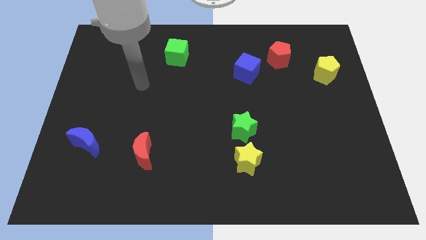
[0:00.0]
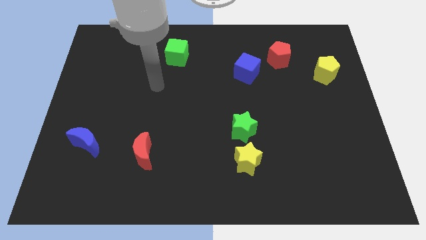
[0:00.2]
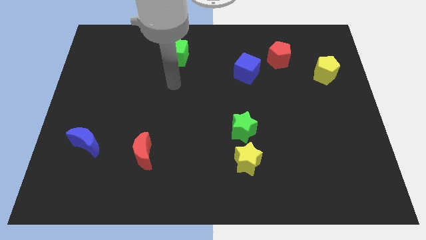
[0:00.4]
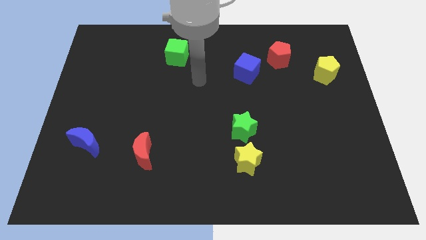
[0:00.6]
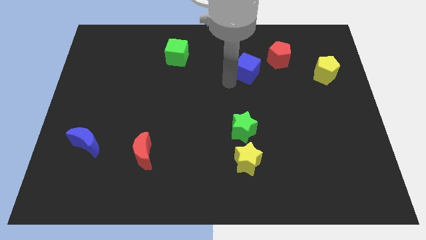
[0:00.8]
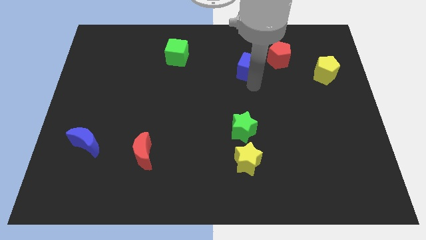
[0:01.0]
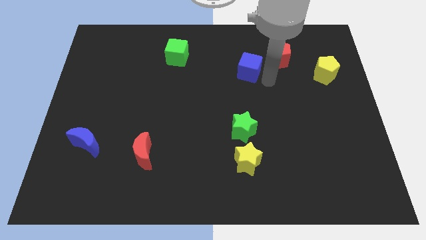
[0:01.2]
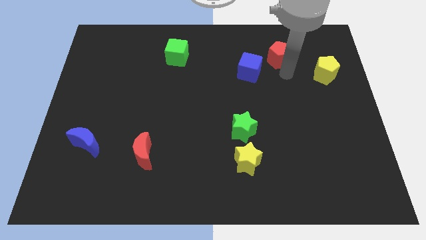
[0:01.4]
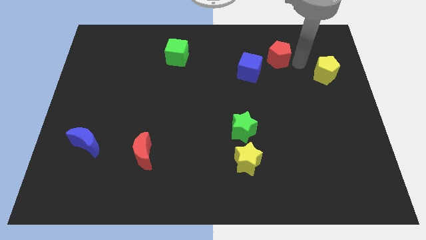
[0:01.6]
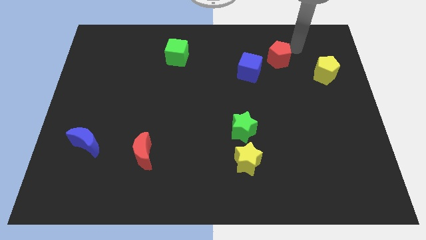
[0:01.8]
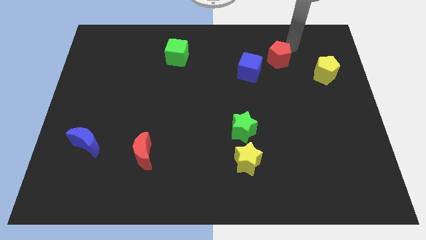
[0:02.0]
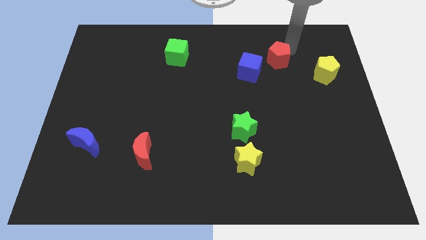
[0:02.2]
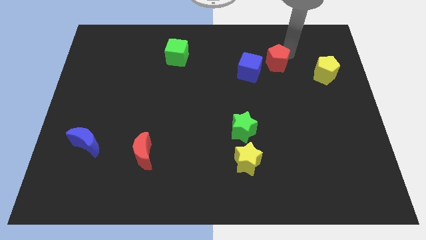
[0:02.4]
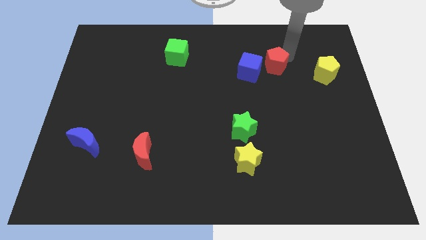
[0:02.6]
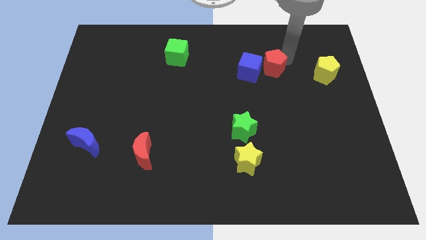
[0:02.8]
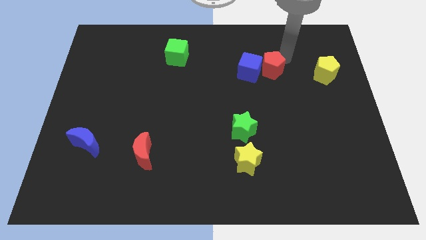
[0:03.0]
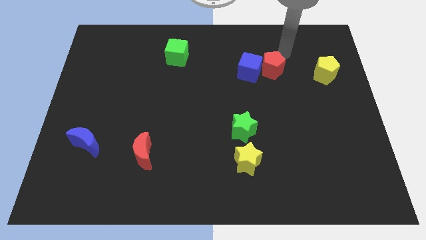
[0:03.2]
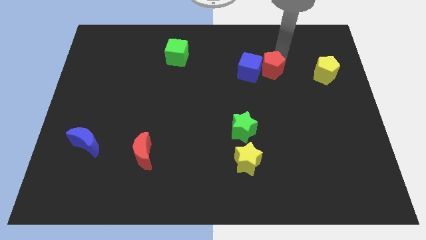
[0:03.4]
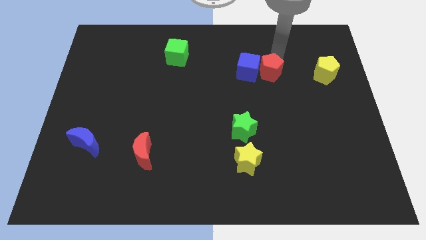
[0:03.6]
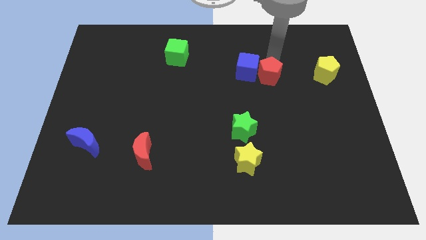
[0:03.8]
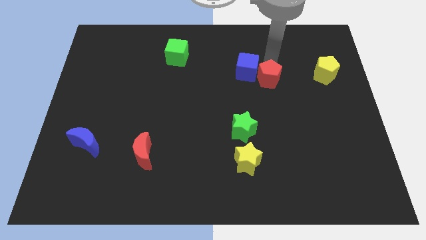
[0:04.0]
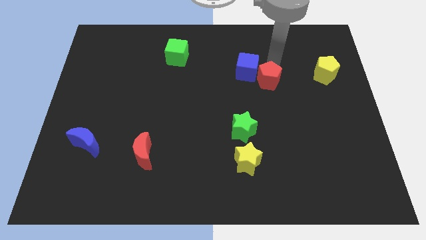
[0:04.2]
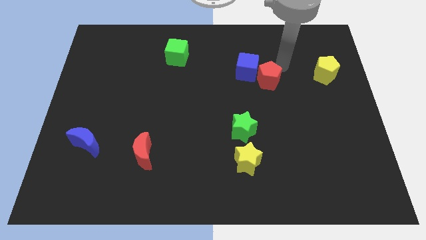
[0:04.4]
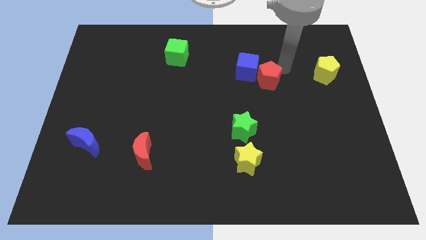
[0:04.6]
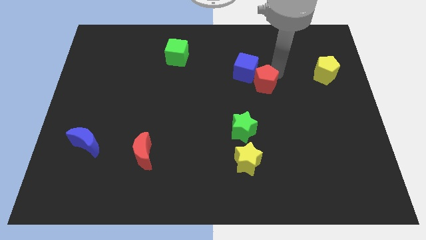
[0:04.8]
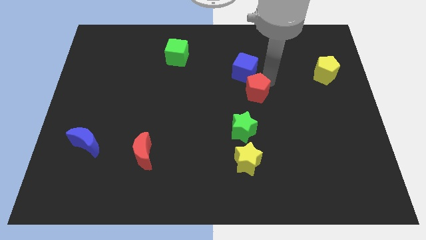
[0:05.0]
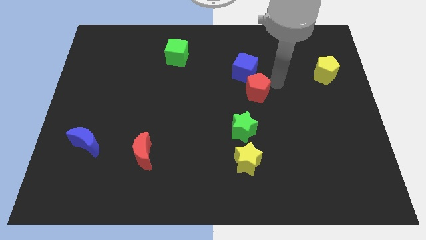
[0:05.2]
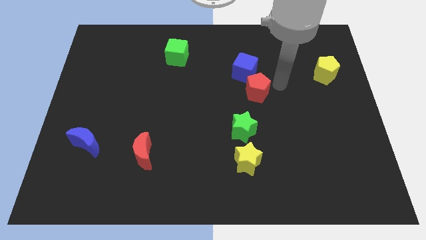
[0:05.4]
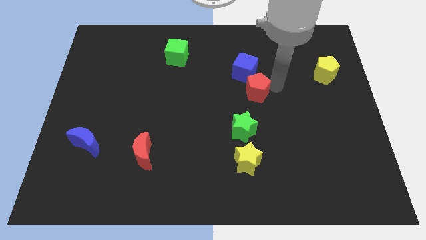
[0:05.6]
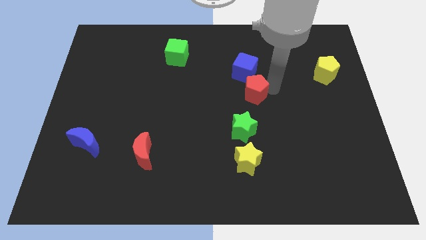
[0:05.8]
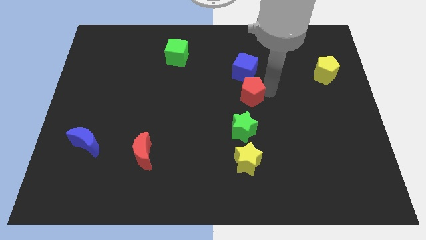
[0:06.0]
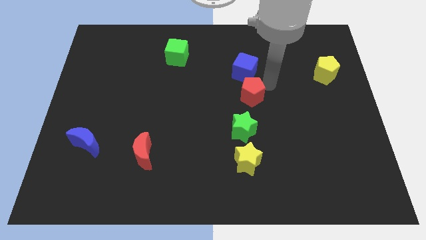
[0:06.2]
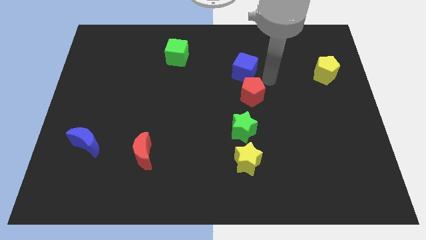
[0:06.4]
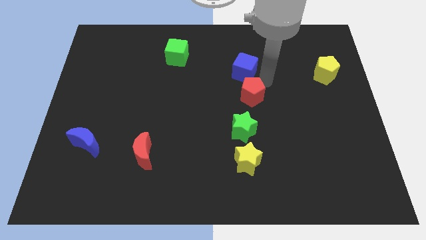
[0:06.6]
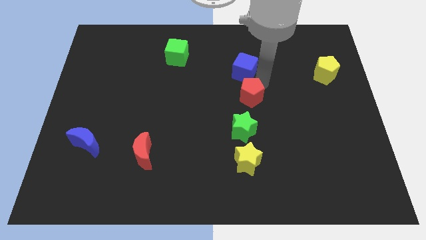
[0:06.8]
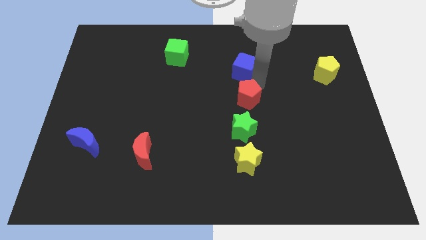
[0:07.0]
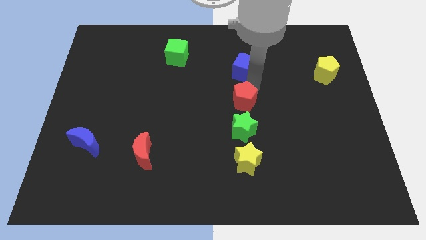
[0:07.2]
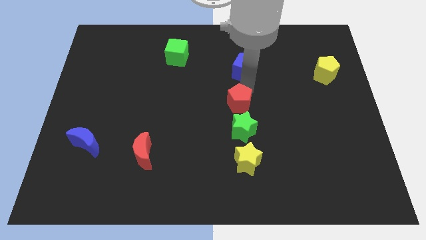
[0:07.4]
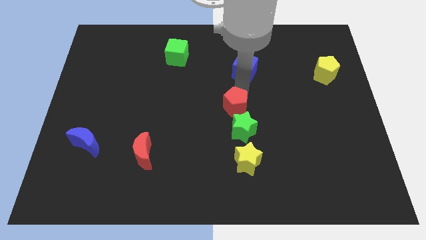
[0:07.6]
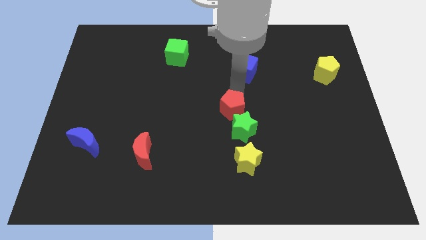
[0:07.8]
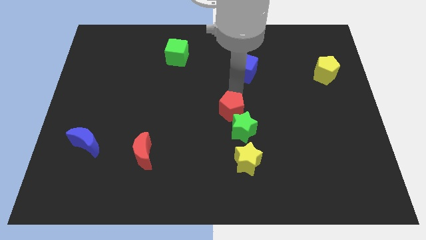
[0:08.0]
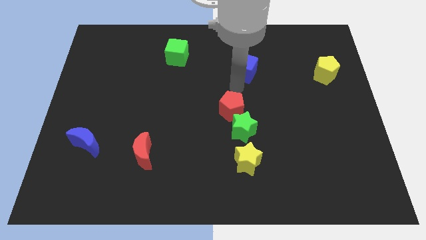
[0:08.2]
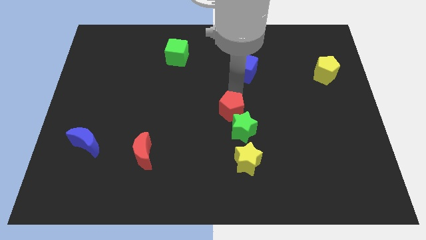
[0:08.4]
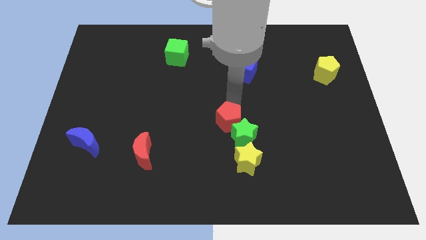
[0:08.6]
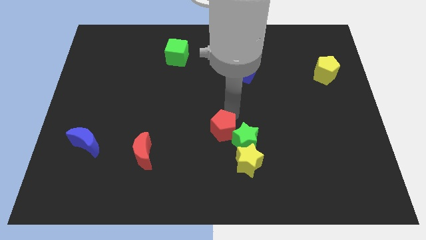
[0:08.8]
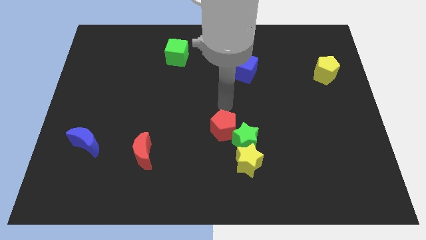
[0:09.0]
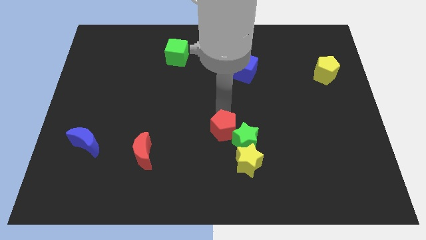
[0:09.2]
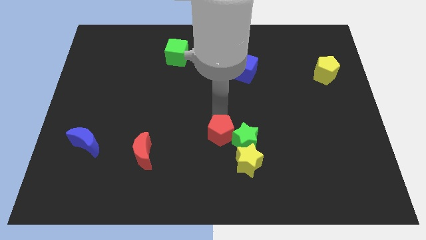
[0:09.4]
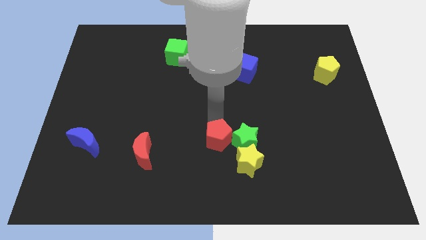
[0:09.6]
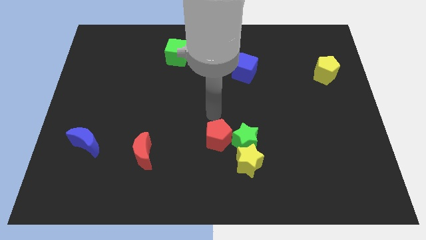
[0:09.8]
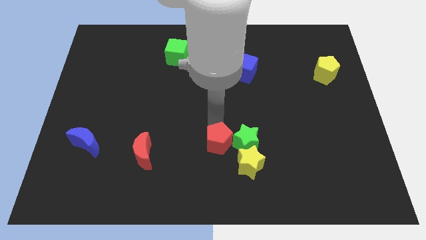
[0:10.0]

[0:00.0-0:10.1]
move the red pentagon to the bottom left side of the green star

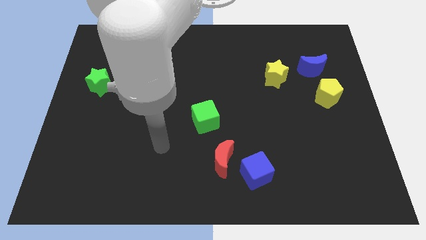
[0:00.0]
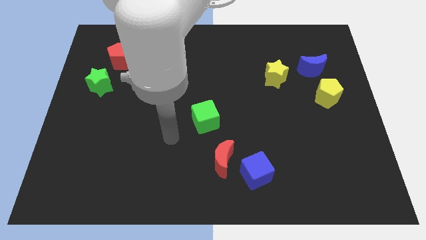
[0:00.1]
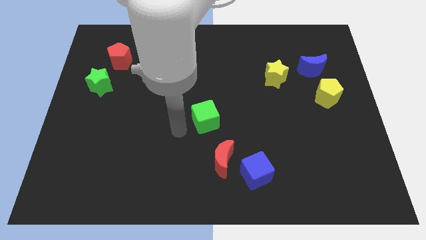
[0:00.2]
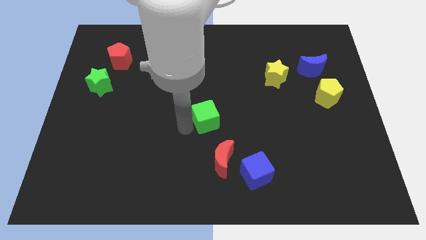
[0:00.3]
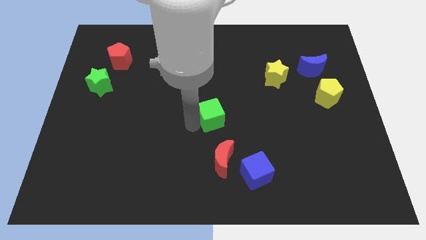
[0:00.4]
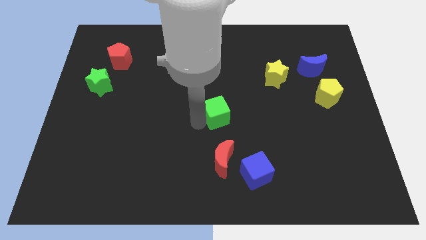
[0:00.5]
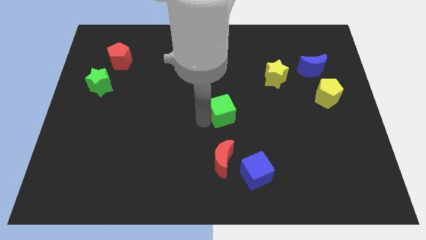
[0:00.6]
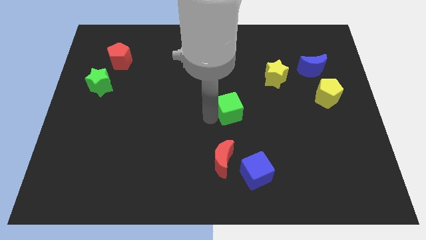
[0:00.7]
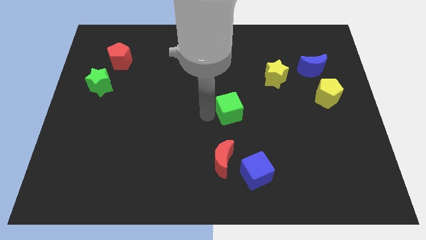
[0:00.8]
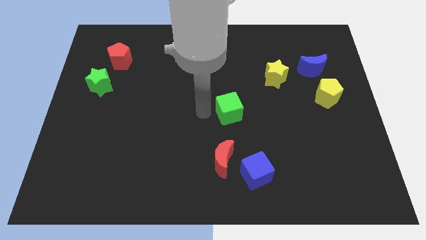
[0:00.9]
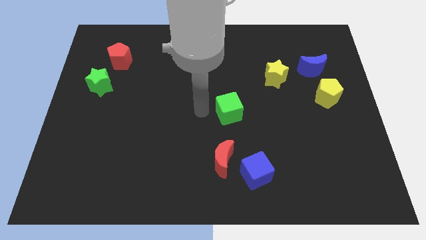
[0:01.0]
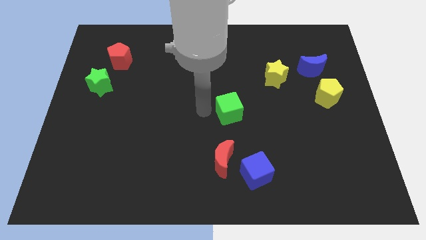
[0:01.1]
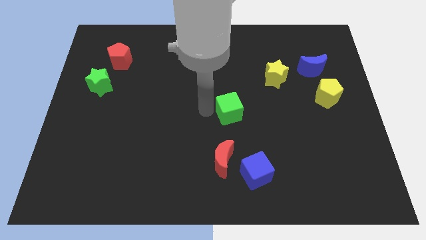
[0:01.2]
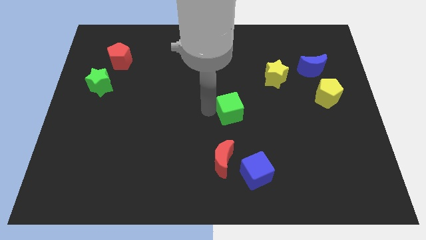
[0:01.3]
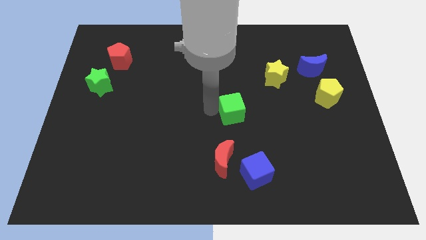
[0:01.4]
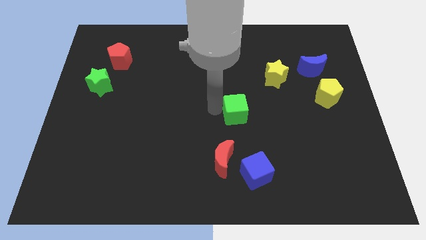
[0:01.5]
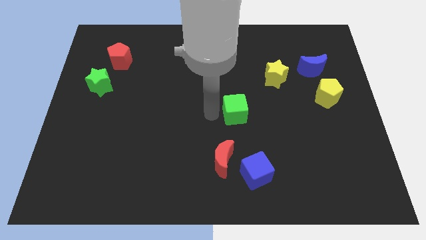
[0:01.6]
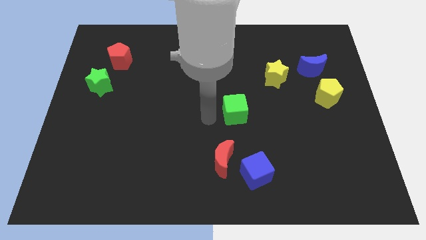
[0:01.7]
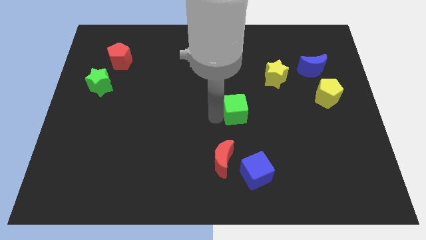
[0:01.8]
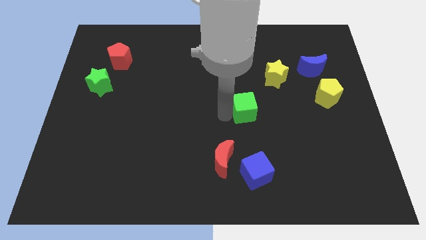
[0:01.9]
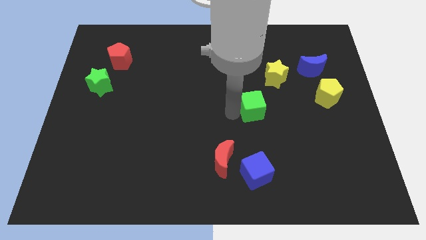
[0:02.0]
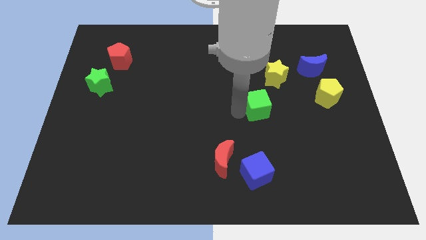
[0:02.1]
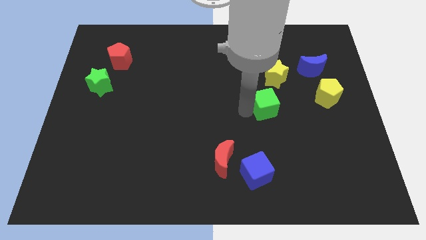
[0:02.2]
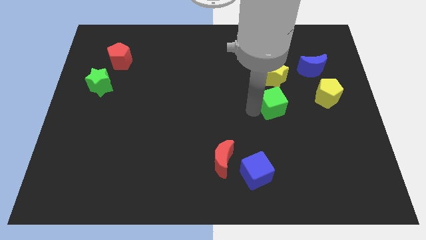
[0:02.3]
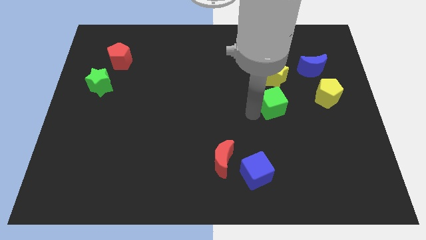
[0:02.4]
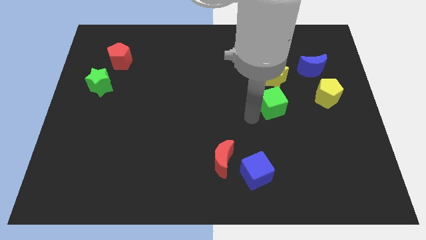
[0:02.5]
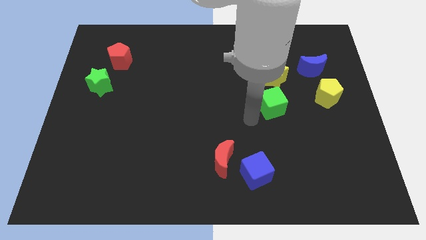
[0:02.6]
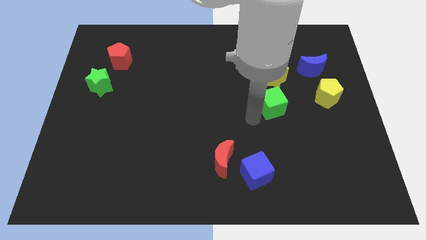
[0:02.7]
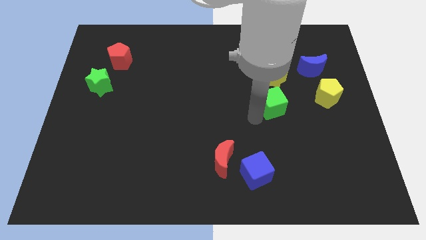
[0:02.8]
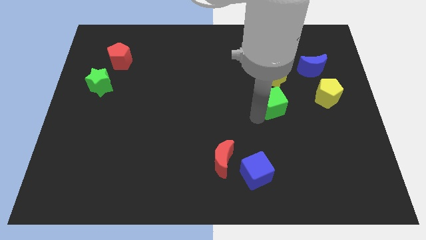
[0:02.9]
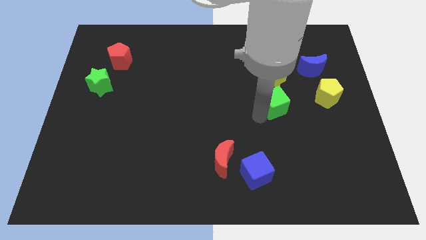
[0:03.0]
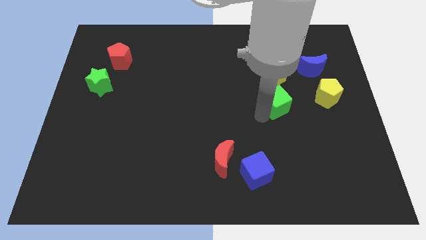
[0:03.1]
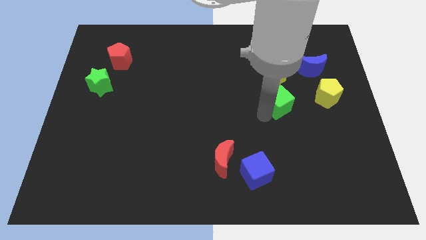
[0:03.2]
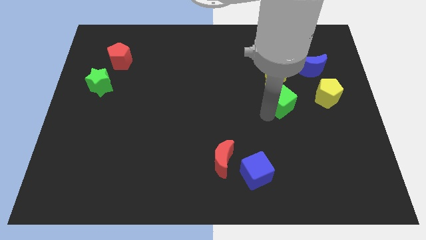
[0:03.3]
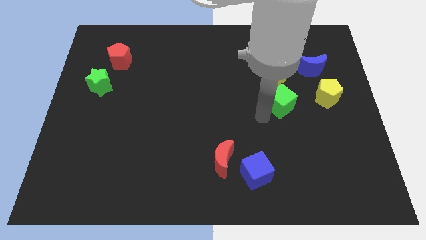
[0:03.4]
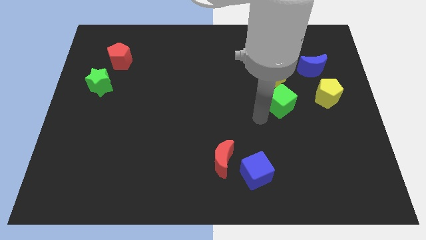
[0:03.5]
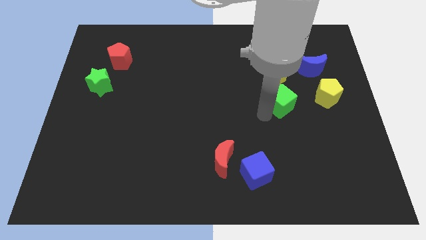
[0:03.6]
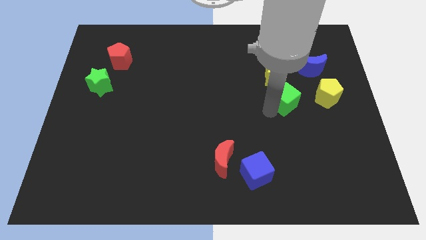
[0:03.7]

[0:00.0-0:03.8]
move the green cube diagonally down and to the right of the yellow star
